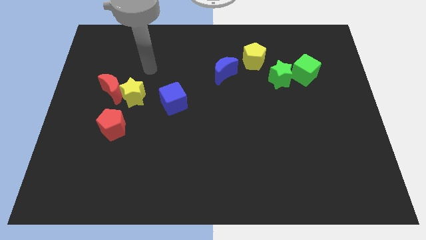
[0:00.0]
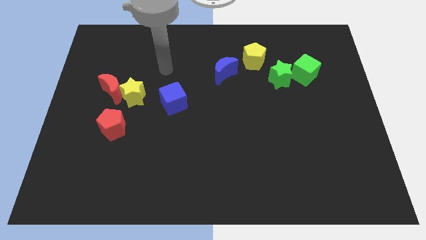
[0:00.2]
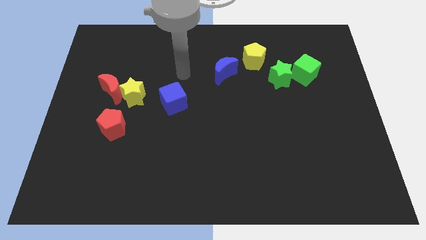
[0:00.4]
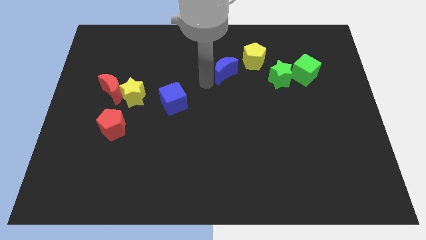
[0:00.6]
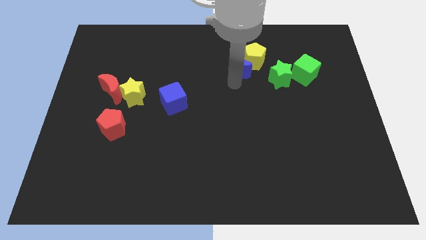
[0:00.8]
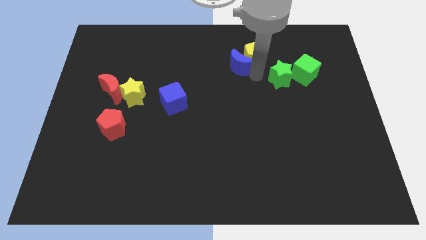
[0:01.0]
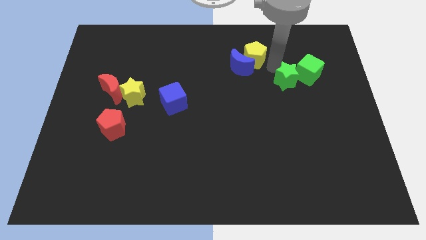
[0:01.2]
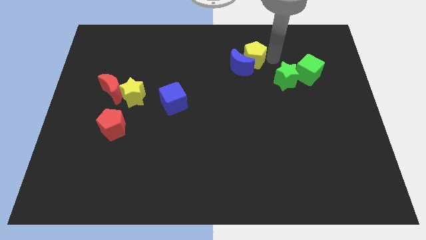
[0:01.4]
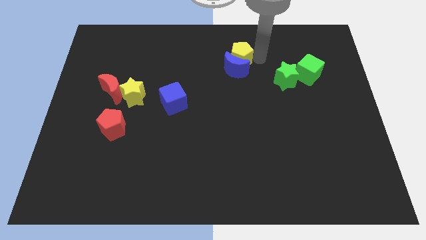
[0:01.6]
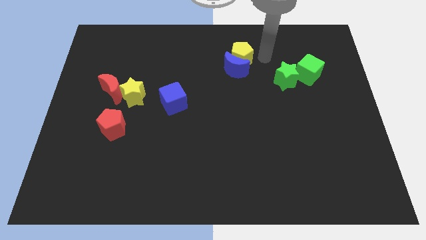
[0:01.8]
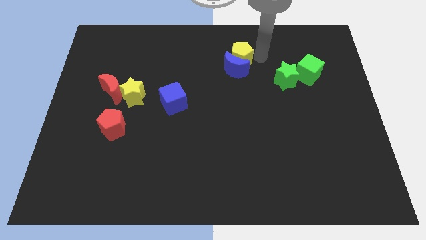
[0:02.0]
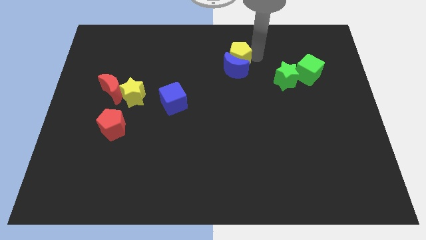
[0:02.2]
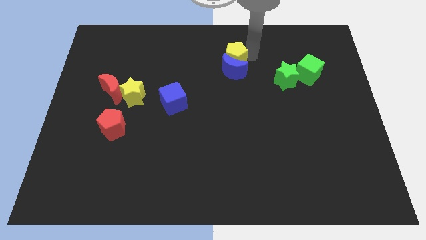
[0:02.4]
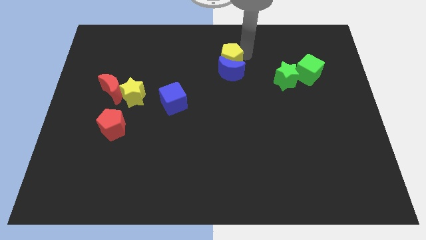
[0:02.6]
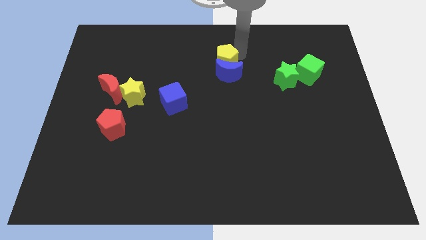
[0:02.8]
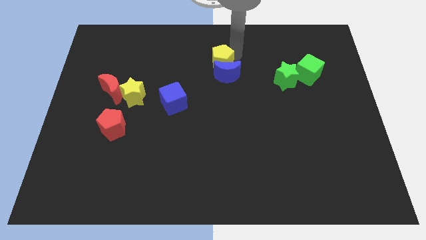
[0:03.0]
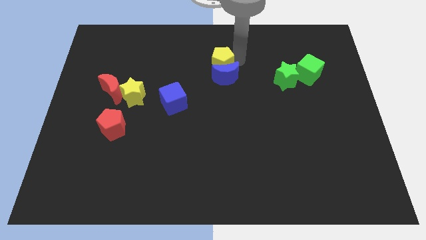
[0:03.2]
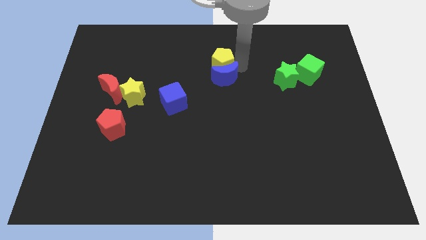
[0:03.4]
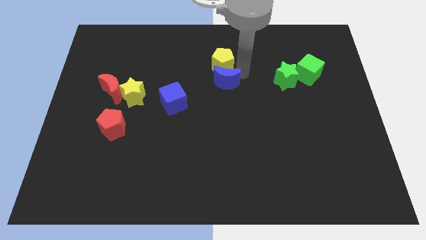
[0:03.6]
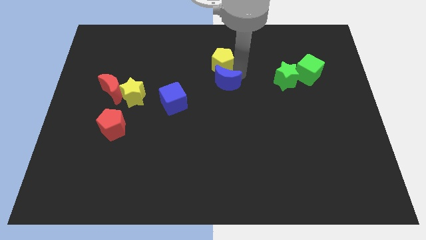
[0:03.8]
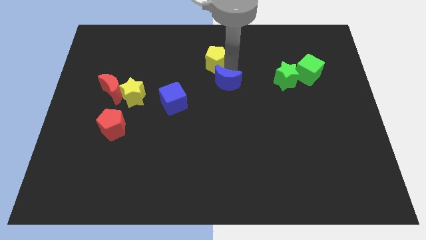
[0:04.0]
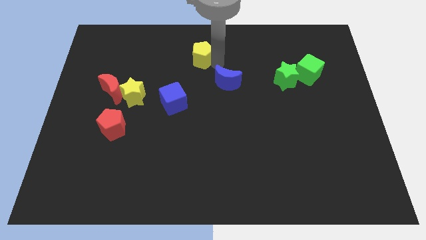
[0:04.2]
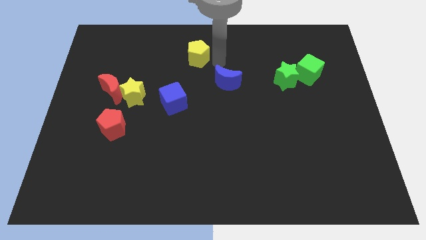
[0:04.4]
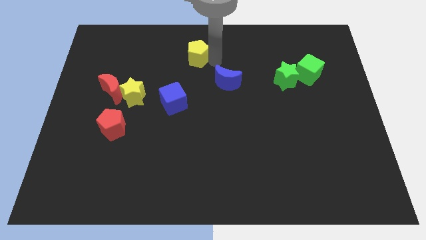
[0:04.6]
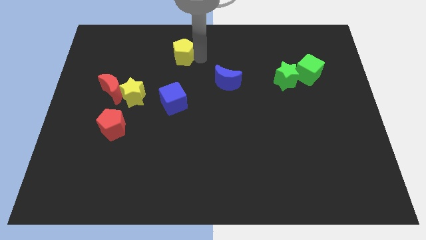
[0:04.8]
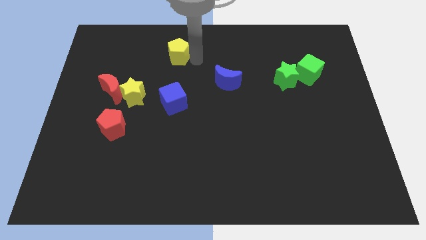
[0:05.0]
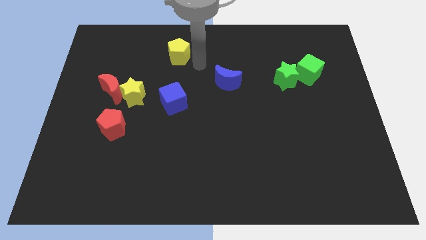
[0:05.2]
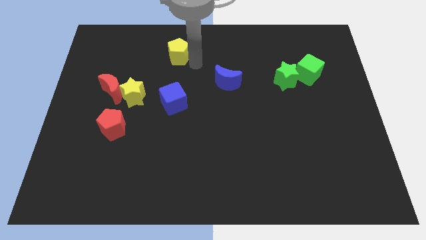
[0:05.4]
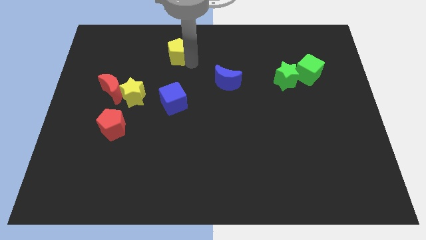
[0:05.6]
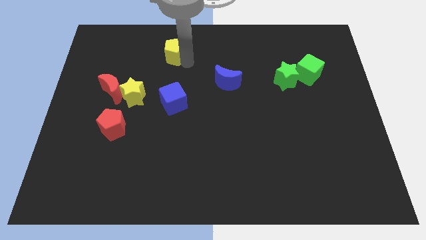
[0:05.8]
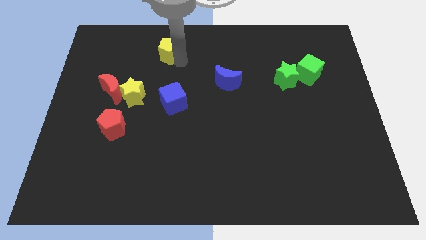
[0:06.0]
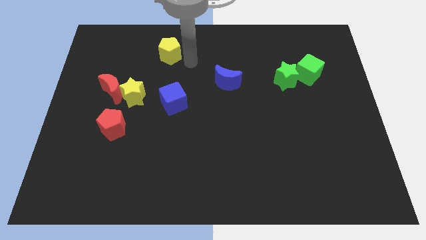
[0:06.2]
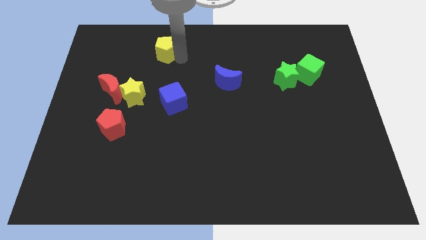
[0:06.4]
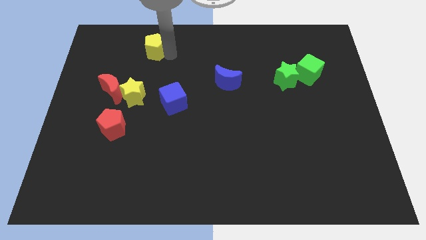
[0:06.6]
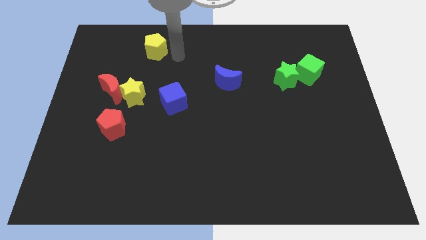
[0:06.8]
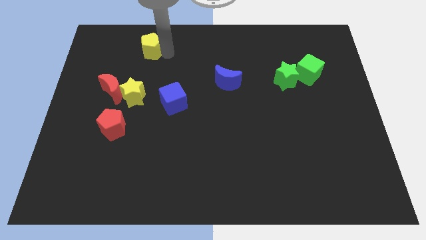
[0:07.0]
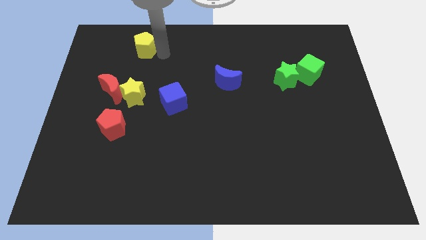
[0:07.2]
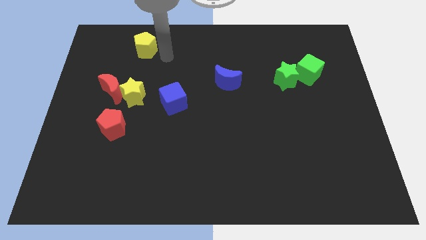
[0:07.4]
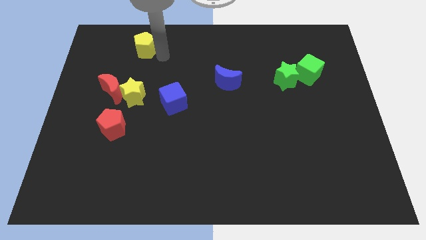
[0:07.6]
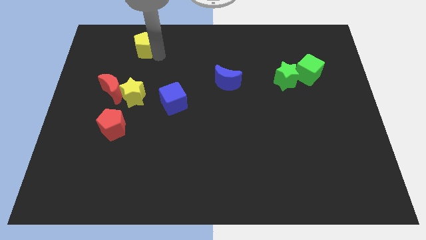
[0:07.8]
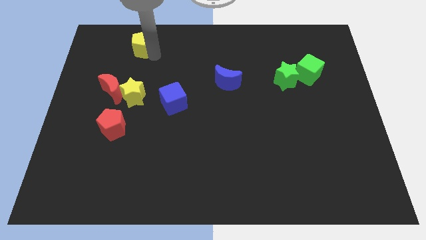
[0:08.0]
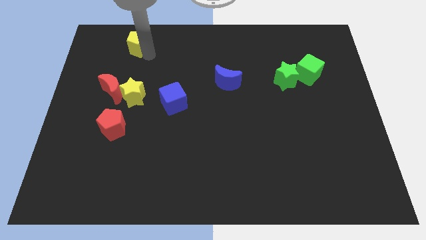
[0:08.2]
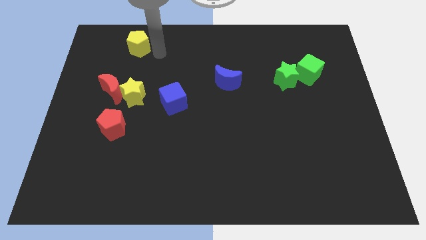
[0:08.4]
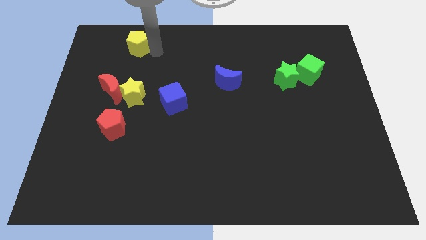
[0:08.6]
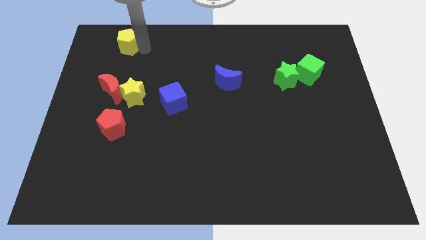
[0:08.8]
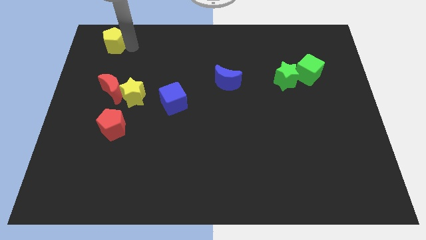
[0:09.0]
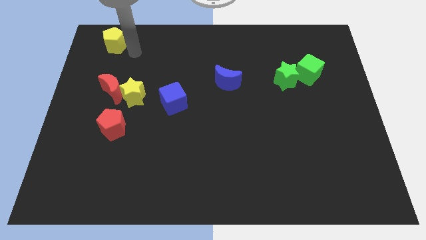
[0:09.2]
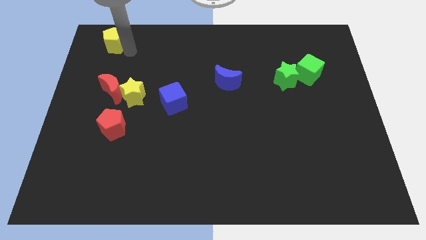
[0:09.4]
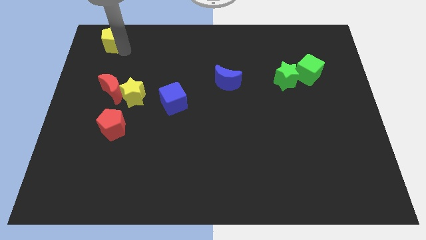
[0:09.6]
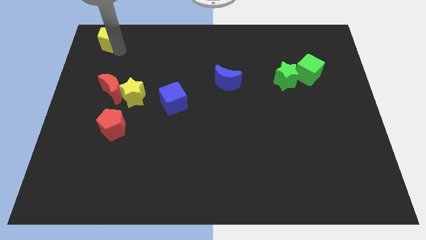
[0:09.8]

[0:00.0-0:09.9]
put the yellow pentagon to the upper left corner
